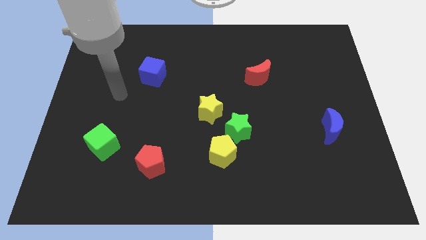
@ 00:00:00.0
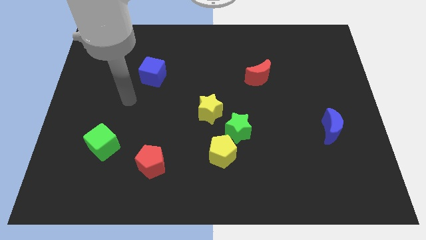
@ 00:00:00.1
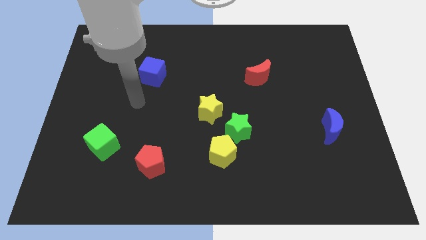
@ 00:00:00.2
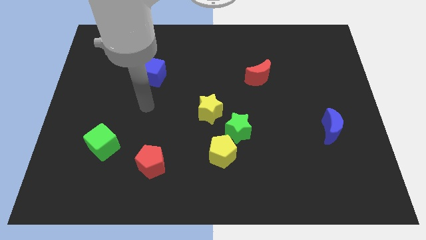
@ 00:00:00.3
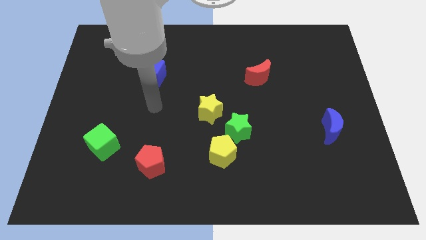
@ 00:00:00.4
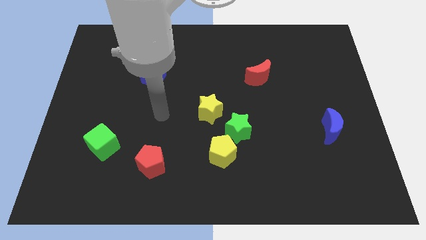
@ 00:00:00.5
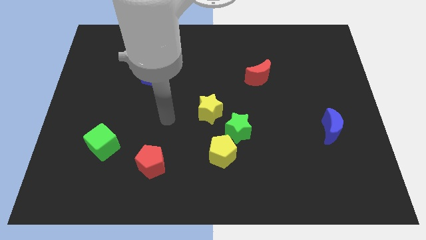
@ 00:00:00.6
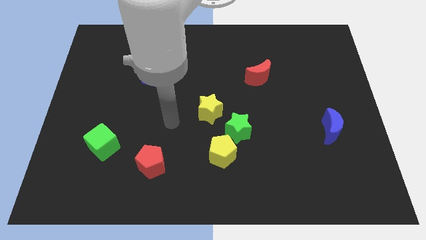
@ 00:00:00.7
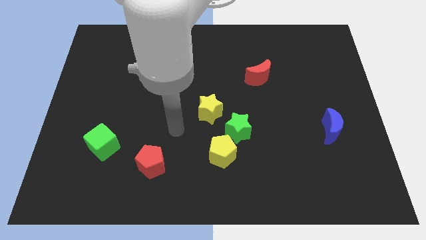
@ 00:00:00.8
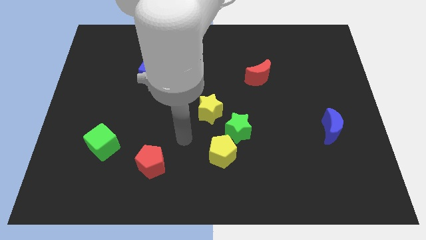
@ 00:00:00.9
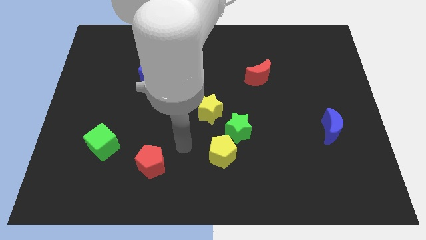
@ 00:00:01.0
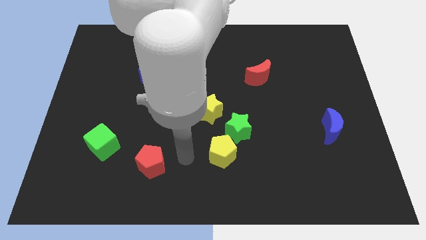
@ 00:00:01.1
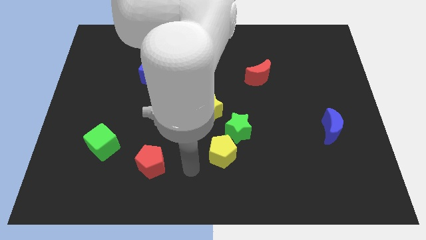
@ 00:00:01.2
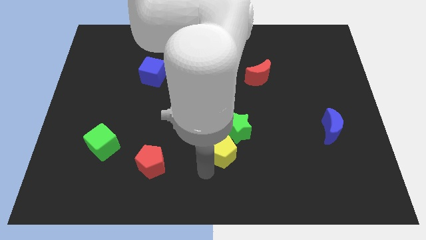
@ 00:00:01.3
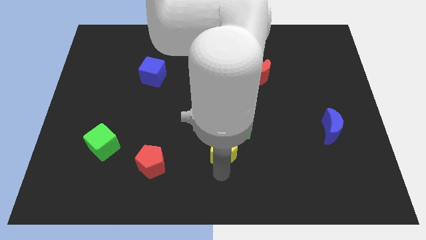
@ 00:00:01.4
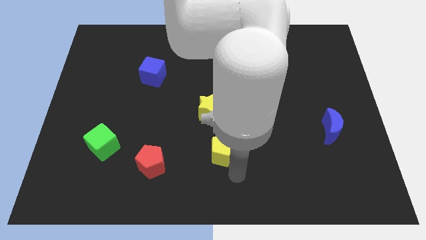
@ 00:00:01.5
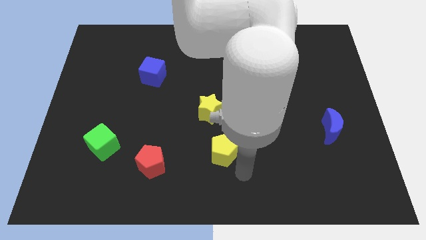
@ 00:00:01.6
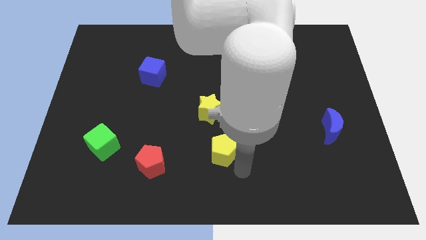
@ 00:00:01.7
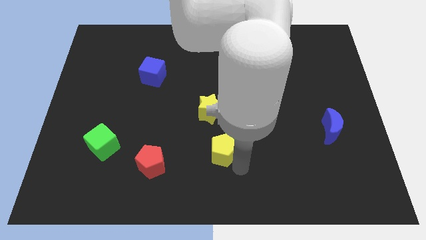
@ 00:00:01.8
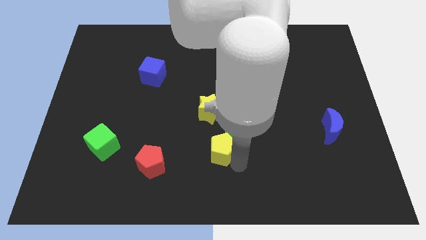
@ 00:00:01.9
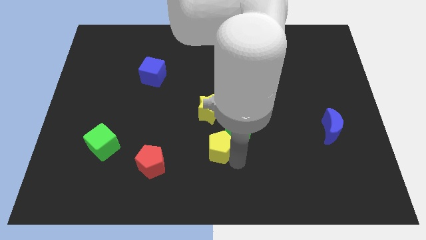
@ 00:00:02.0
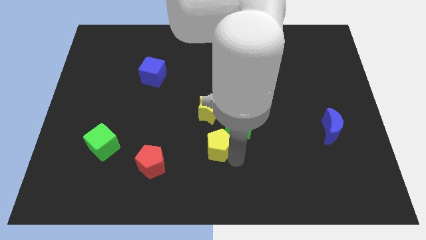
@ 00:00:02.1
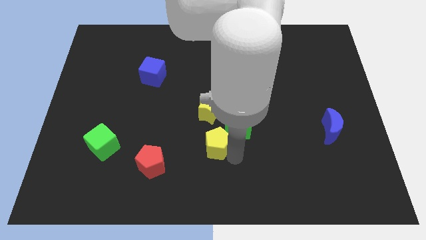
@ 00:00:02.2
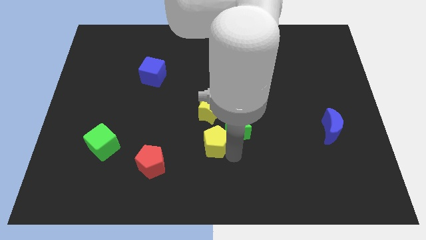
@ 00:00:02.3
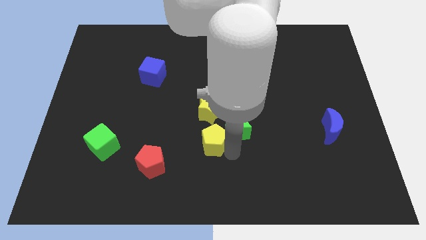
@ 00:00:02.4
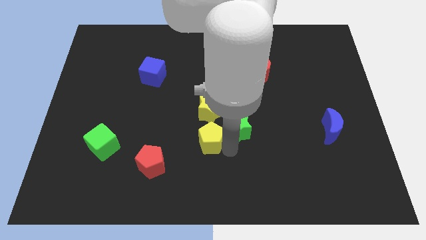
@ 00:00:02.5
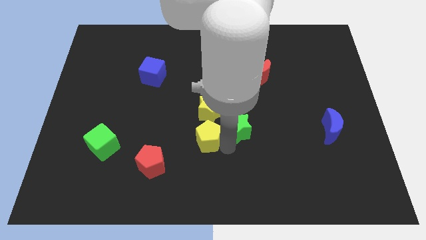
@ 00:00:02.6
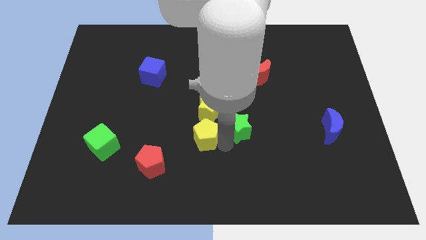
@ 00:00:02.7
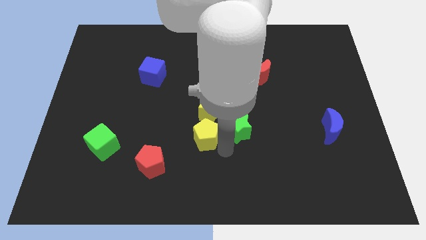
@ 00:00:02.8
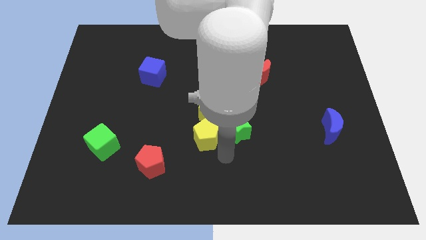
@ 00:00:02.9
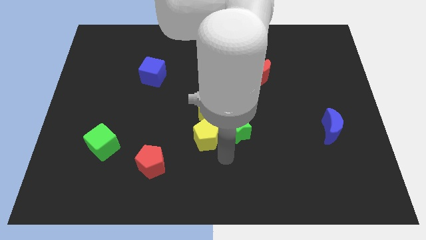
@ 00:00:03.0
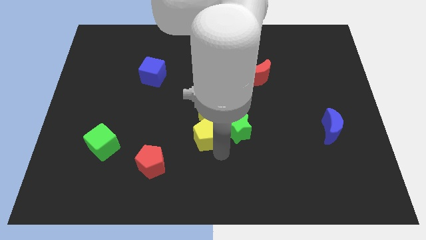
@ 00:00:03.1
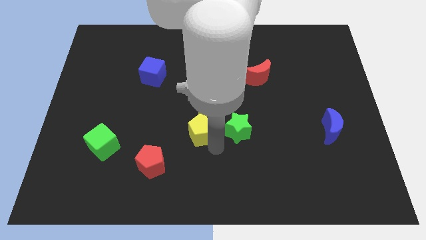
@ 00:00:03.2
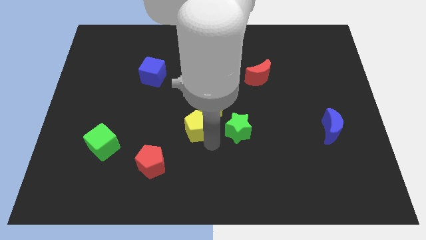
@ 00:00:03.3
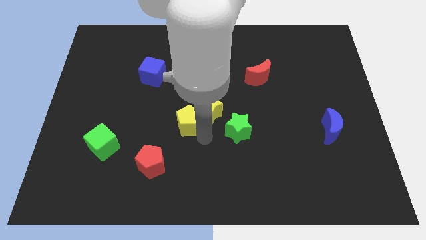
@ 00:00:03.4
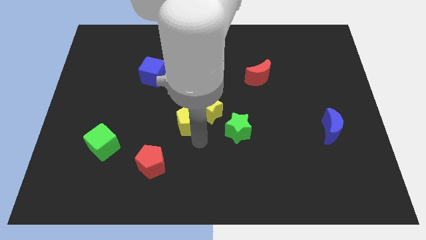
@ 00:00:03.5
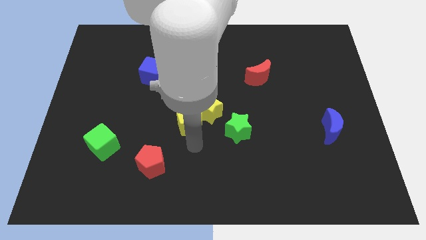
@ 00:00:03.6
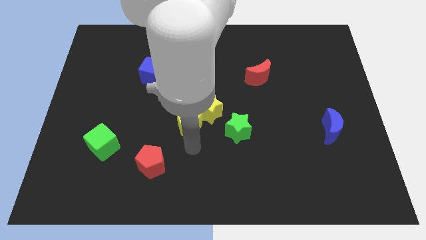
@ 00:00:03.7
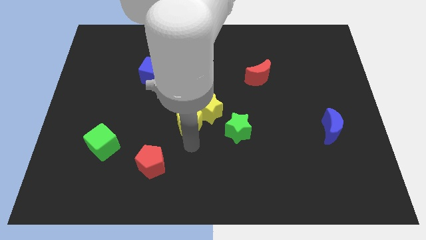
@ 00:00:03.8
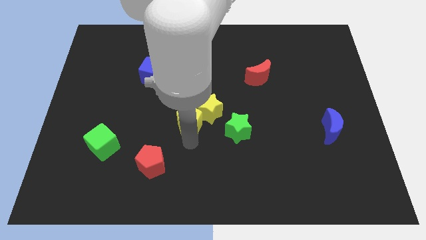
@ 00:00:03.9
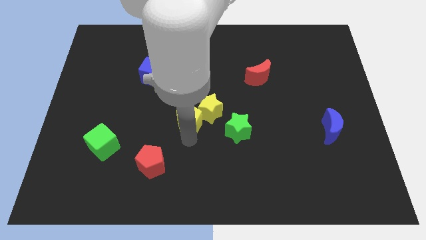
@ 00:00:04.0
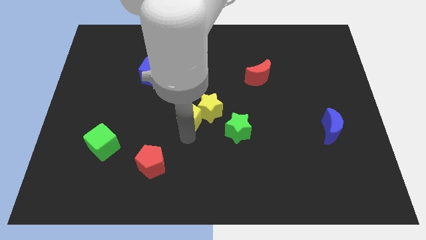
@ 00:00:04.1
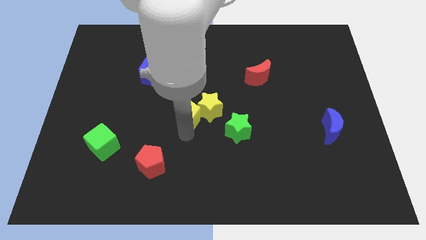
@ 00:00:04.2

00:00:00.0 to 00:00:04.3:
slide the yellow pentagon a little bit up

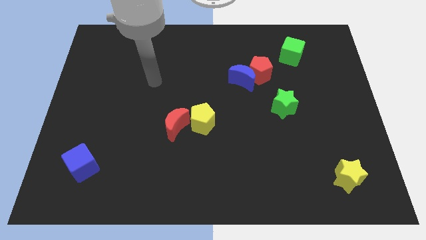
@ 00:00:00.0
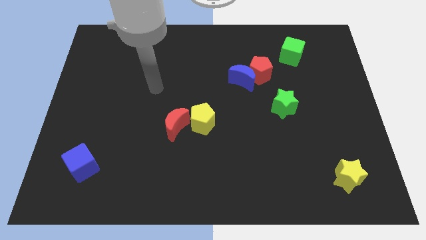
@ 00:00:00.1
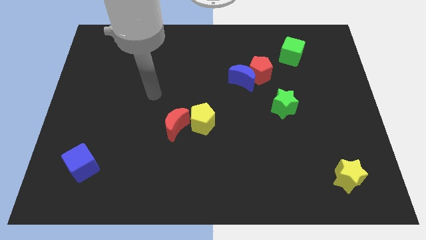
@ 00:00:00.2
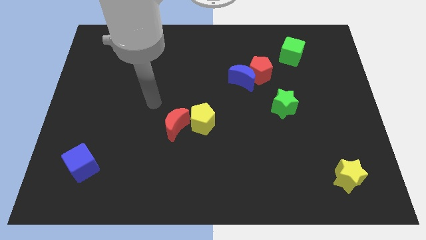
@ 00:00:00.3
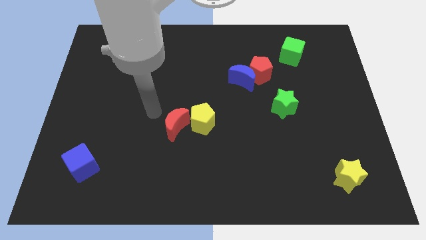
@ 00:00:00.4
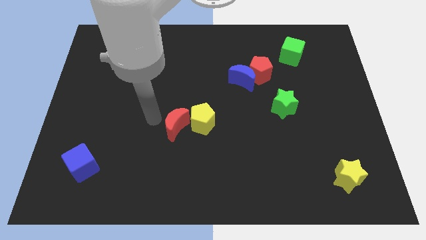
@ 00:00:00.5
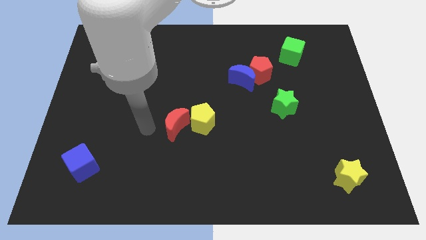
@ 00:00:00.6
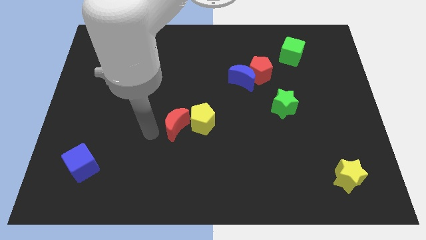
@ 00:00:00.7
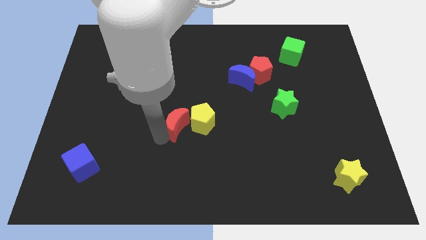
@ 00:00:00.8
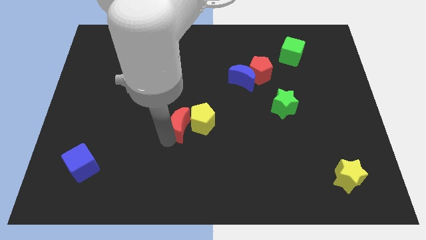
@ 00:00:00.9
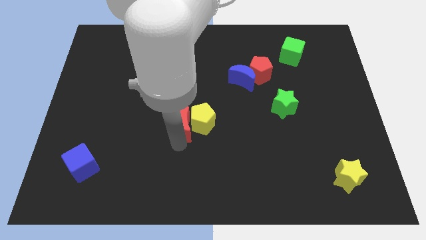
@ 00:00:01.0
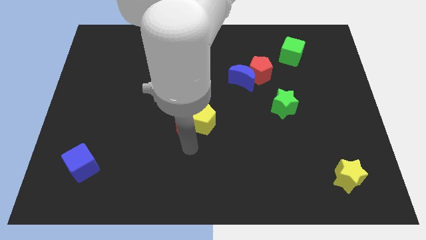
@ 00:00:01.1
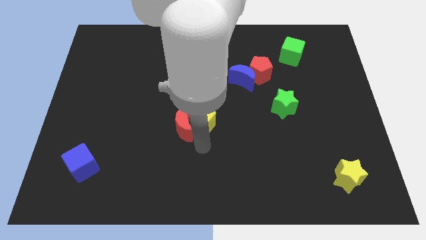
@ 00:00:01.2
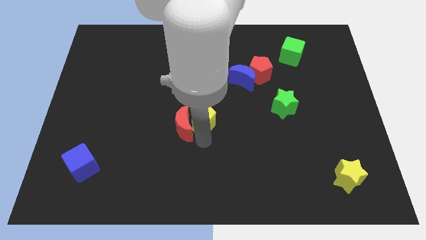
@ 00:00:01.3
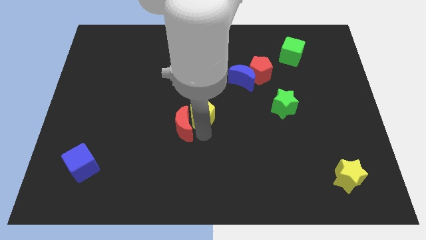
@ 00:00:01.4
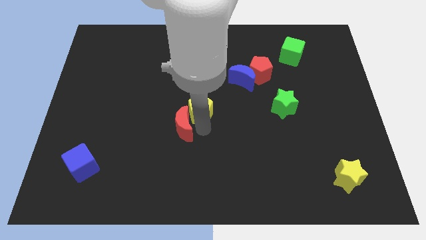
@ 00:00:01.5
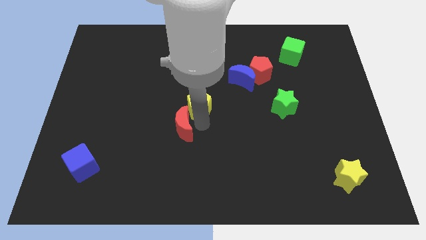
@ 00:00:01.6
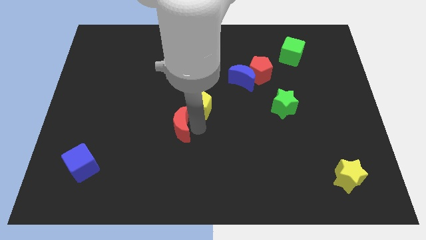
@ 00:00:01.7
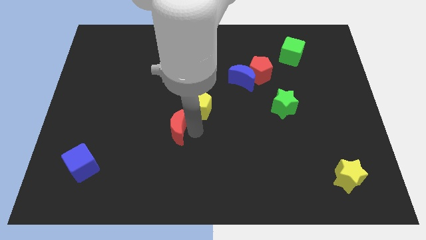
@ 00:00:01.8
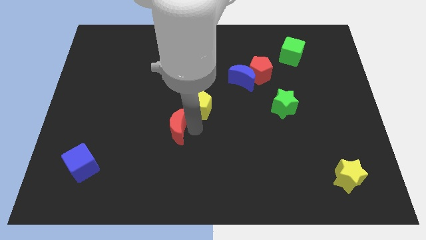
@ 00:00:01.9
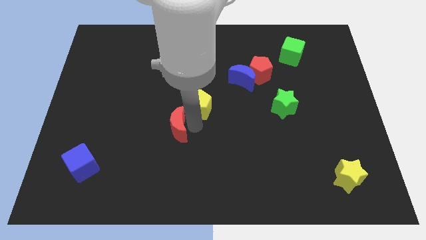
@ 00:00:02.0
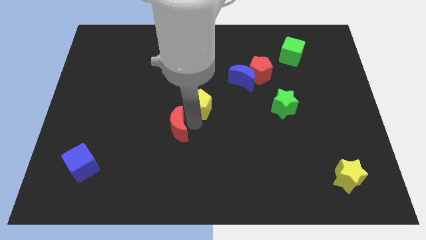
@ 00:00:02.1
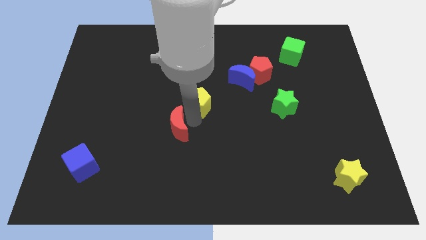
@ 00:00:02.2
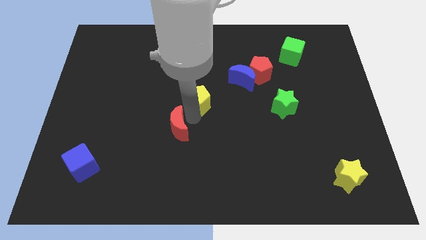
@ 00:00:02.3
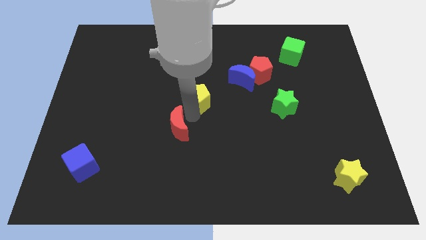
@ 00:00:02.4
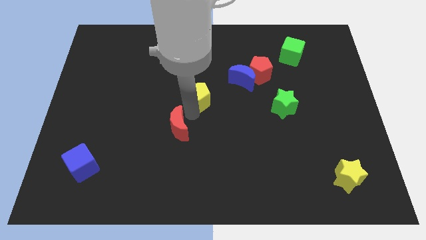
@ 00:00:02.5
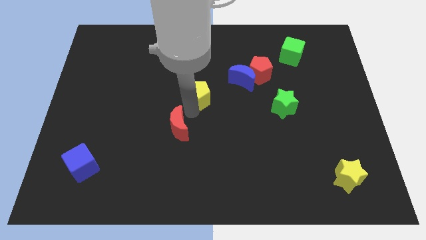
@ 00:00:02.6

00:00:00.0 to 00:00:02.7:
push the yellow pentagon upwards a little

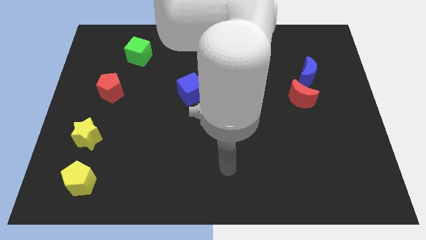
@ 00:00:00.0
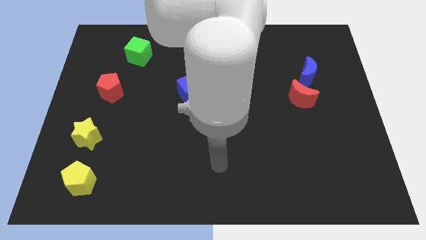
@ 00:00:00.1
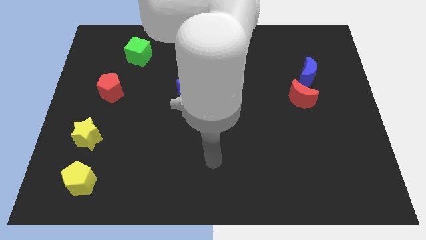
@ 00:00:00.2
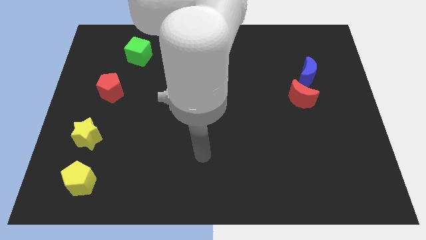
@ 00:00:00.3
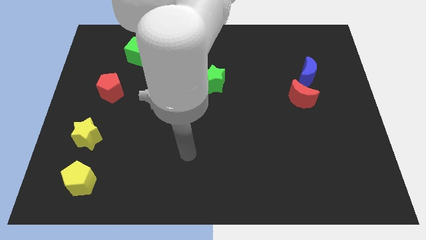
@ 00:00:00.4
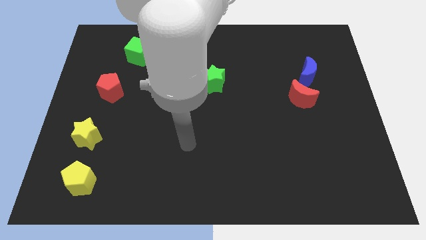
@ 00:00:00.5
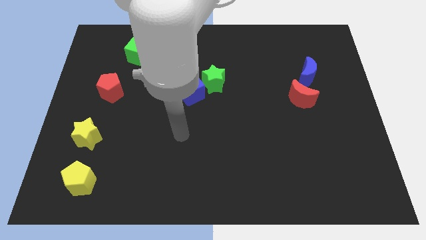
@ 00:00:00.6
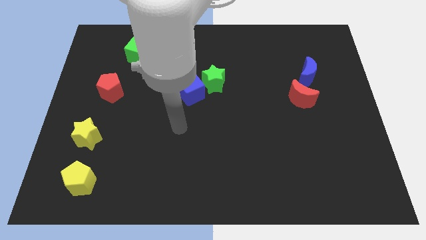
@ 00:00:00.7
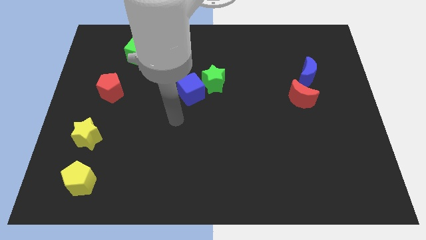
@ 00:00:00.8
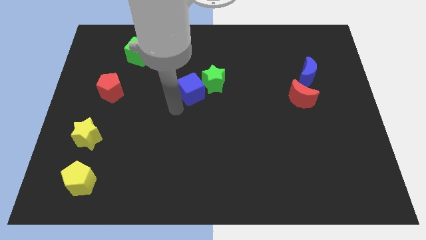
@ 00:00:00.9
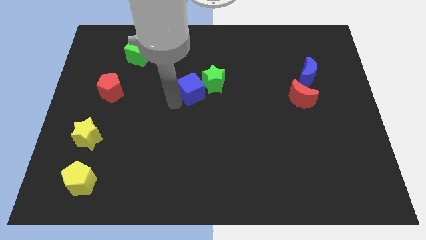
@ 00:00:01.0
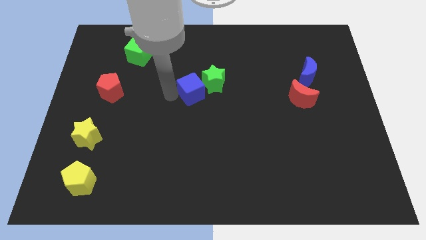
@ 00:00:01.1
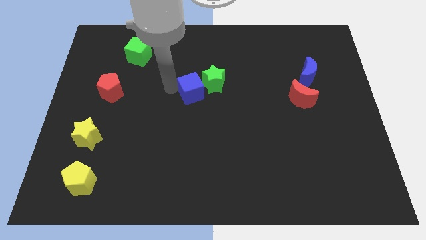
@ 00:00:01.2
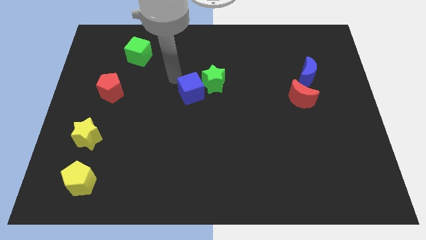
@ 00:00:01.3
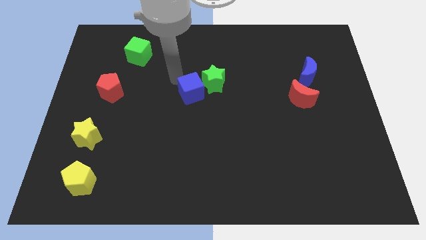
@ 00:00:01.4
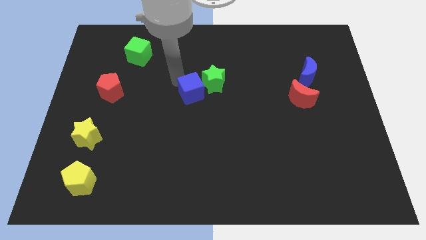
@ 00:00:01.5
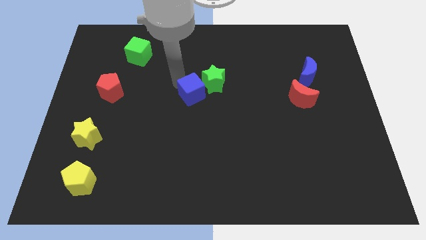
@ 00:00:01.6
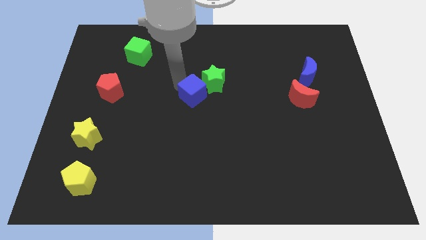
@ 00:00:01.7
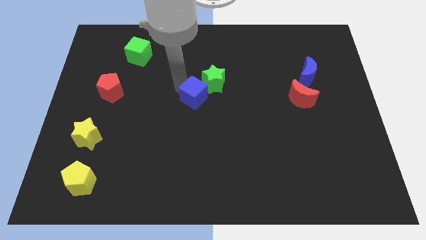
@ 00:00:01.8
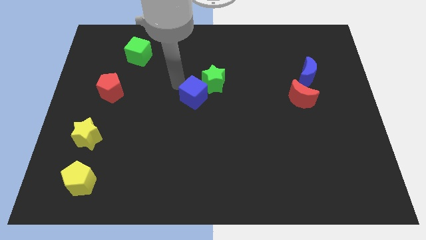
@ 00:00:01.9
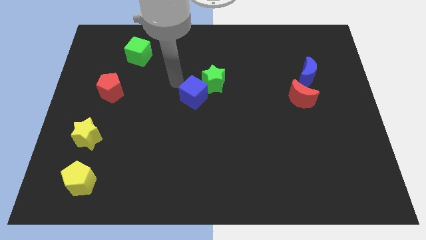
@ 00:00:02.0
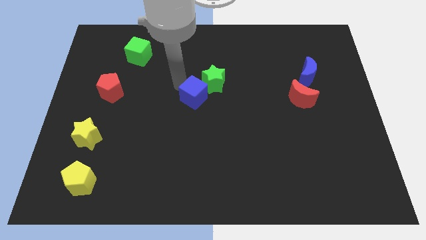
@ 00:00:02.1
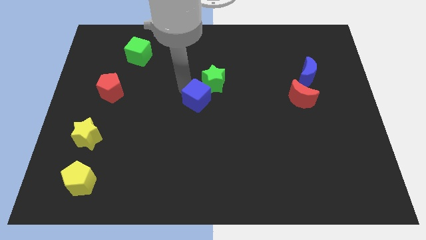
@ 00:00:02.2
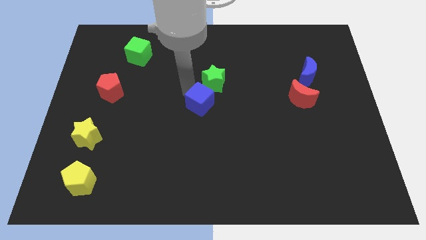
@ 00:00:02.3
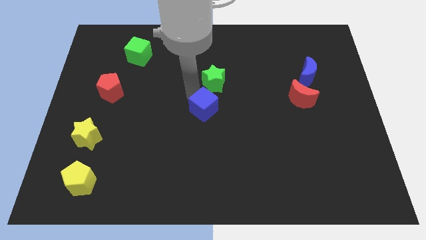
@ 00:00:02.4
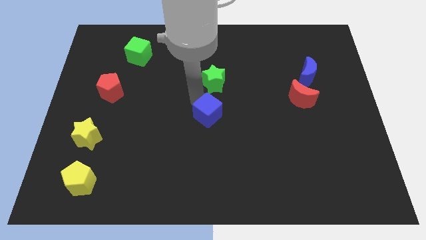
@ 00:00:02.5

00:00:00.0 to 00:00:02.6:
push the blue cube down and right a bit
